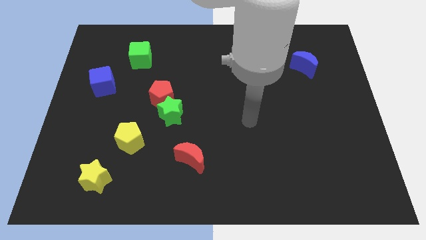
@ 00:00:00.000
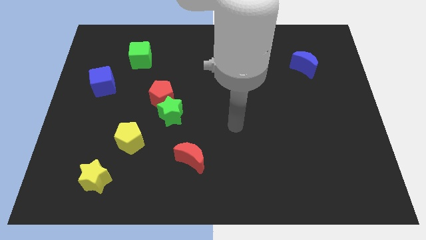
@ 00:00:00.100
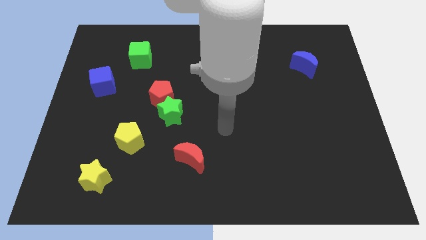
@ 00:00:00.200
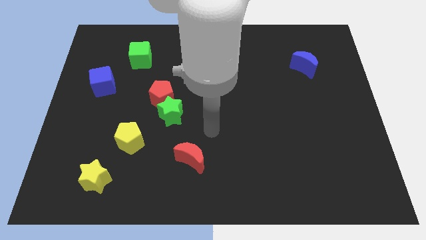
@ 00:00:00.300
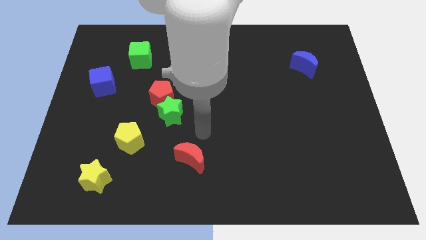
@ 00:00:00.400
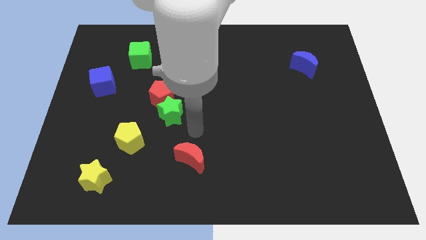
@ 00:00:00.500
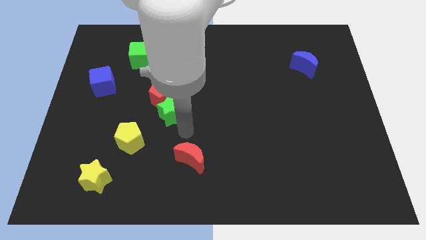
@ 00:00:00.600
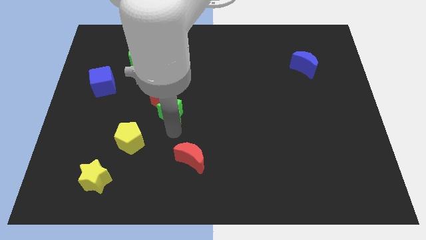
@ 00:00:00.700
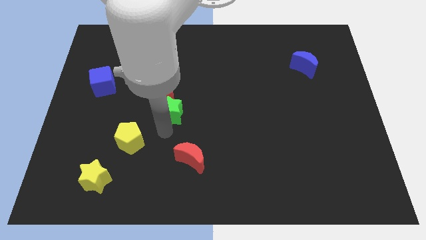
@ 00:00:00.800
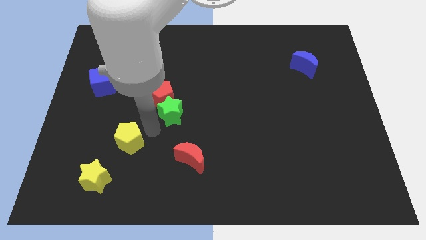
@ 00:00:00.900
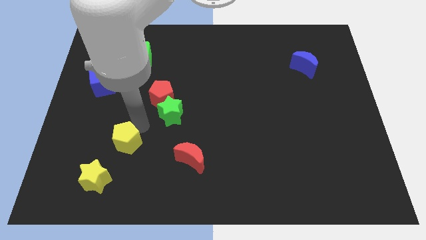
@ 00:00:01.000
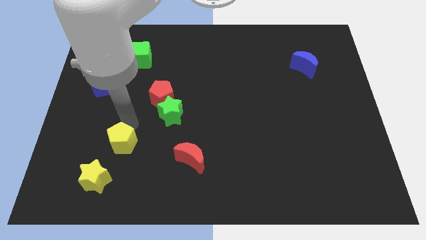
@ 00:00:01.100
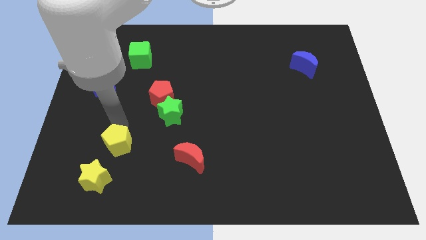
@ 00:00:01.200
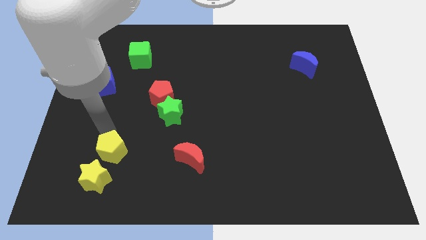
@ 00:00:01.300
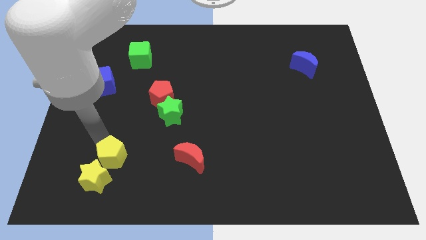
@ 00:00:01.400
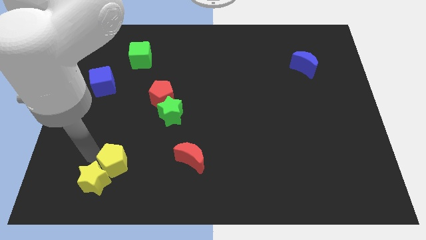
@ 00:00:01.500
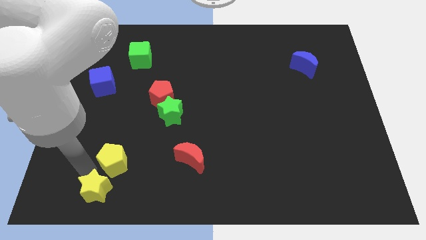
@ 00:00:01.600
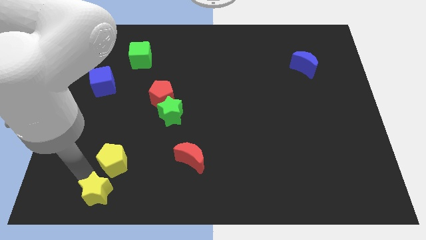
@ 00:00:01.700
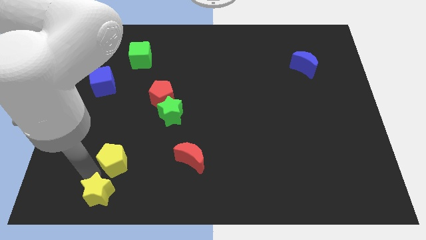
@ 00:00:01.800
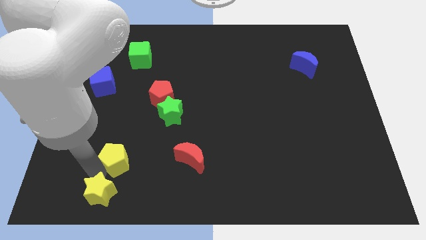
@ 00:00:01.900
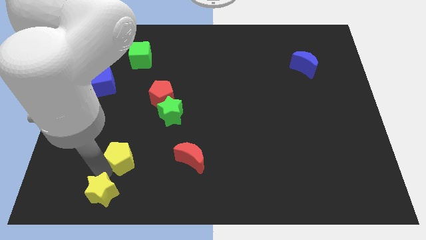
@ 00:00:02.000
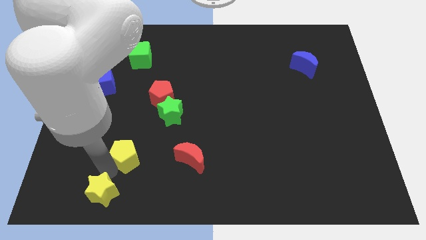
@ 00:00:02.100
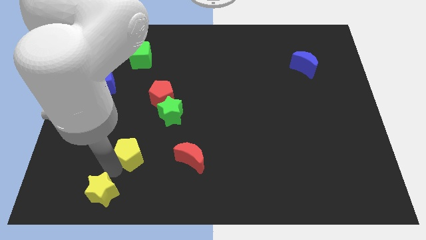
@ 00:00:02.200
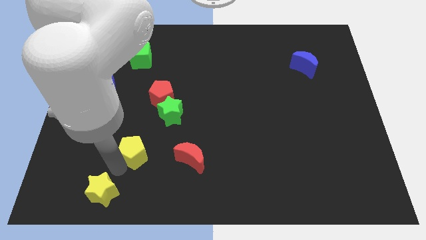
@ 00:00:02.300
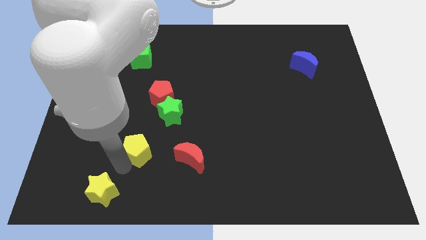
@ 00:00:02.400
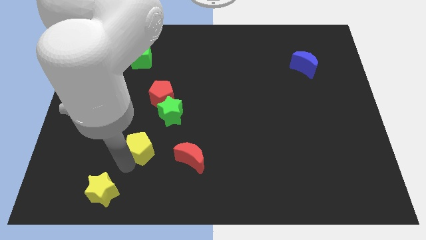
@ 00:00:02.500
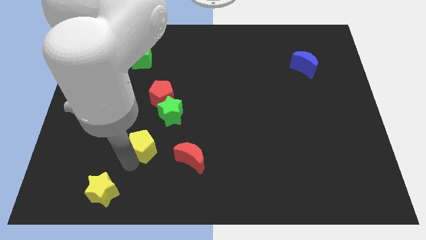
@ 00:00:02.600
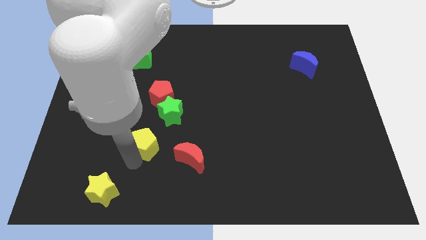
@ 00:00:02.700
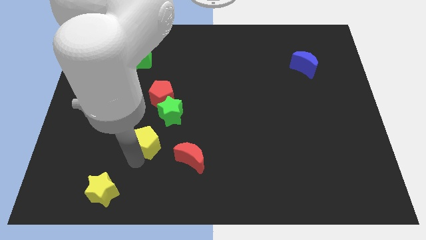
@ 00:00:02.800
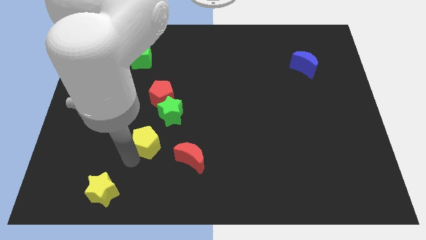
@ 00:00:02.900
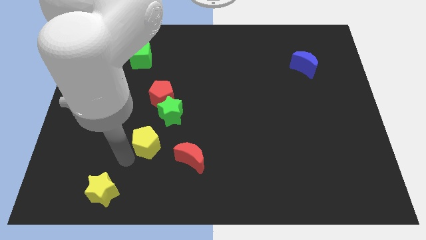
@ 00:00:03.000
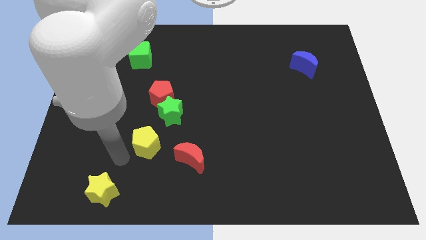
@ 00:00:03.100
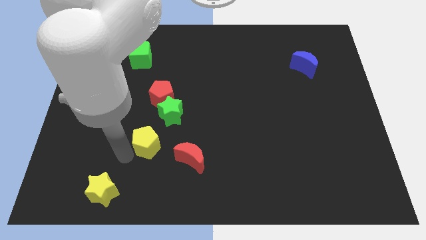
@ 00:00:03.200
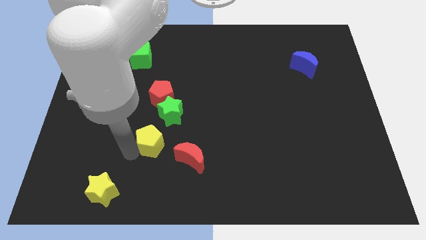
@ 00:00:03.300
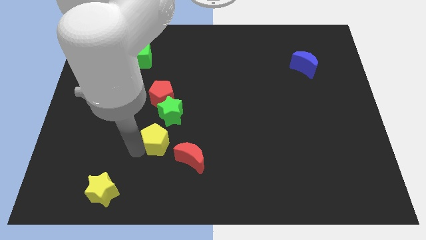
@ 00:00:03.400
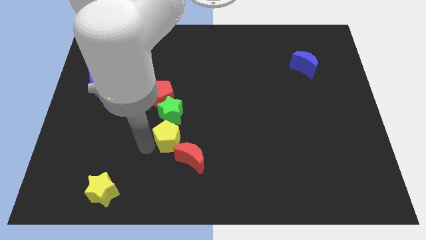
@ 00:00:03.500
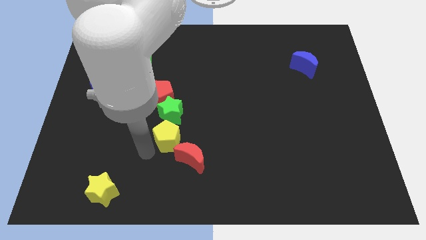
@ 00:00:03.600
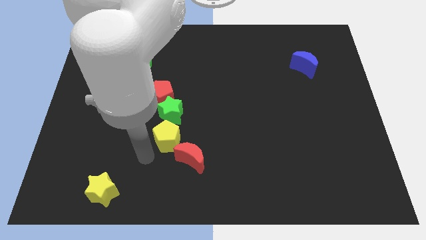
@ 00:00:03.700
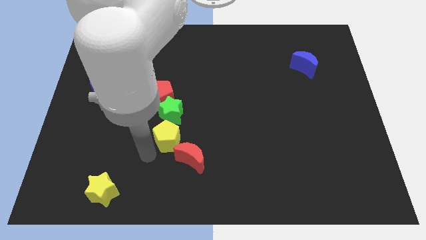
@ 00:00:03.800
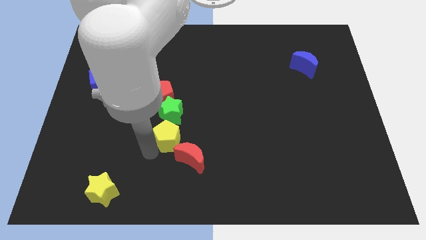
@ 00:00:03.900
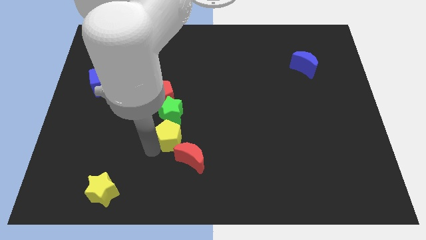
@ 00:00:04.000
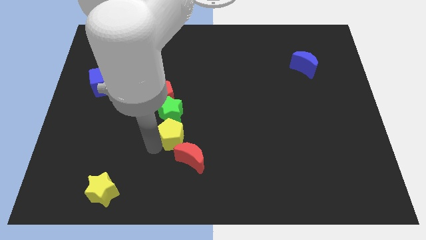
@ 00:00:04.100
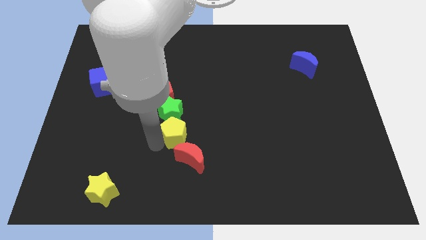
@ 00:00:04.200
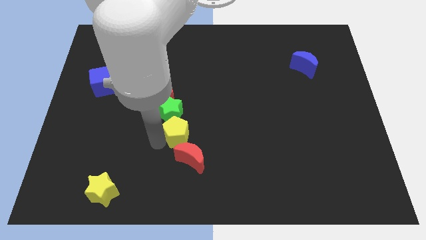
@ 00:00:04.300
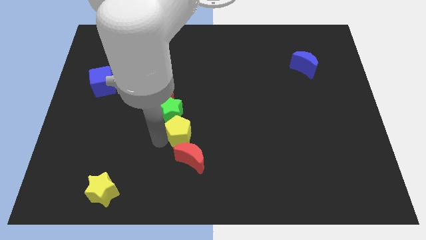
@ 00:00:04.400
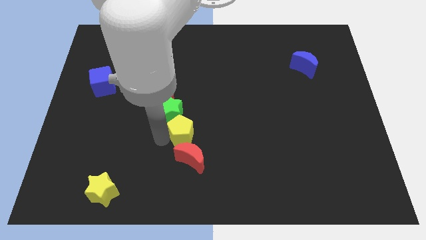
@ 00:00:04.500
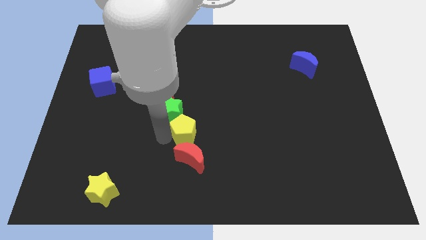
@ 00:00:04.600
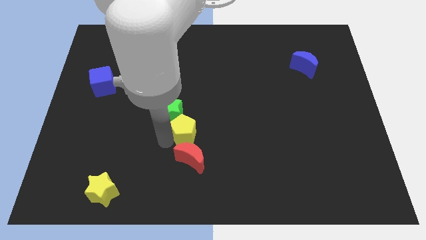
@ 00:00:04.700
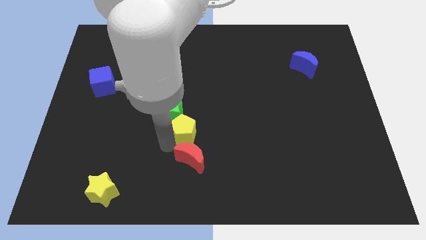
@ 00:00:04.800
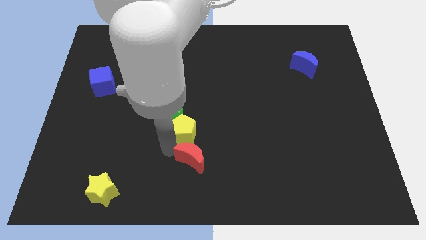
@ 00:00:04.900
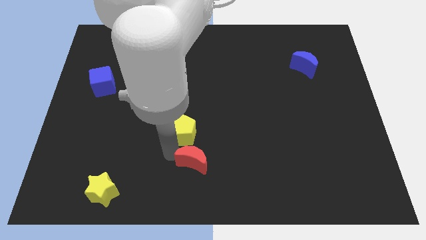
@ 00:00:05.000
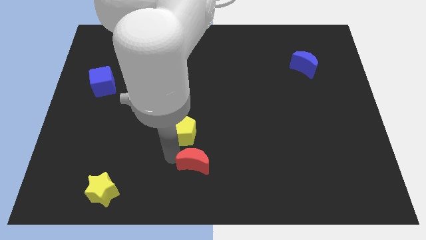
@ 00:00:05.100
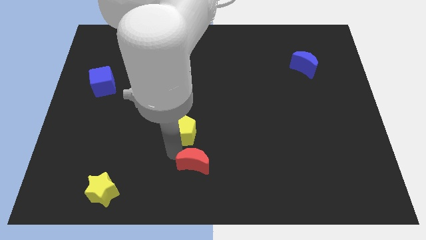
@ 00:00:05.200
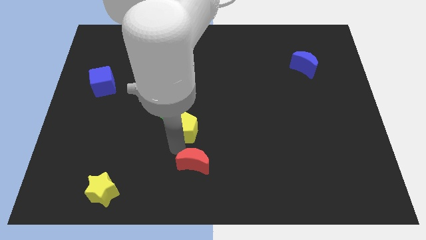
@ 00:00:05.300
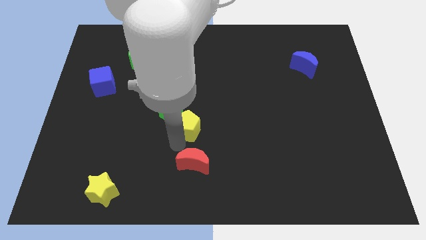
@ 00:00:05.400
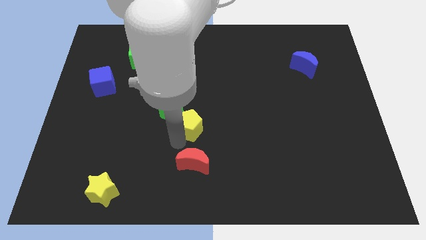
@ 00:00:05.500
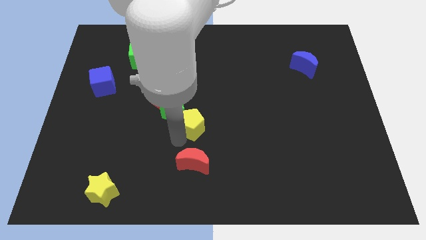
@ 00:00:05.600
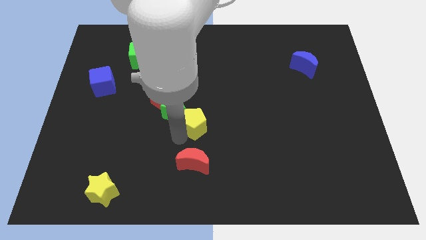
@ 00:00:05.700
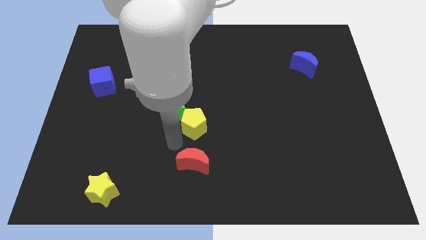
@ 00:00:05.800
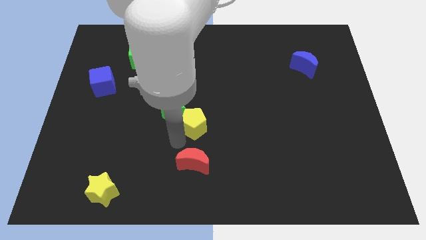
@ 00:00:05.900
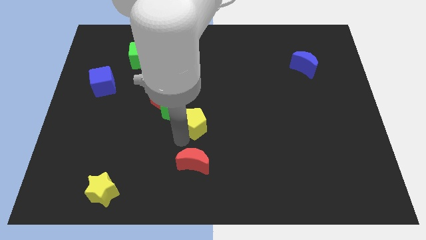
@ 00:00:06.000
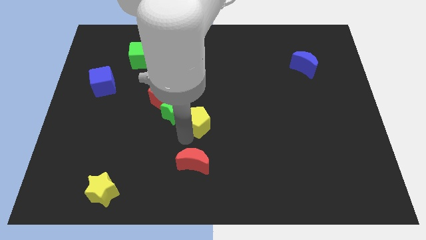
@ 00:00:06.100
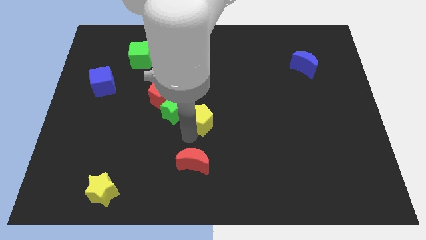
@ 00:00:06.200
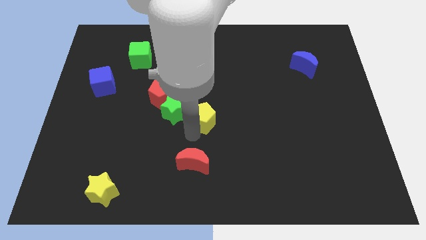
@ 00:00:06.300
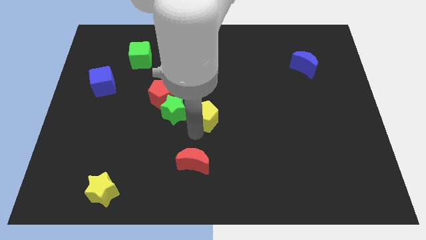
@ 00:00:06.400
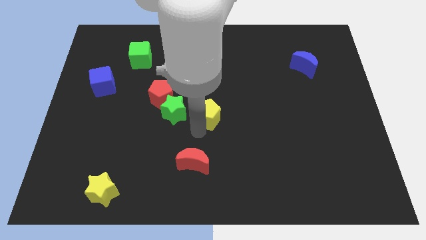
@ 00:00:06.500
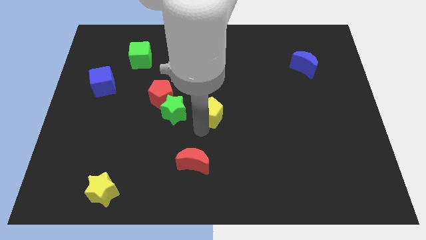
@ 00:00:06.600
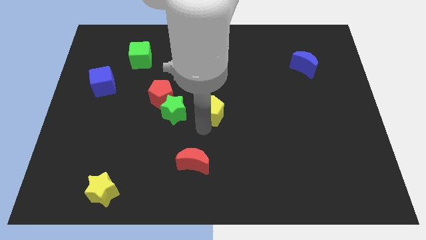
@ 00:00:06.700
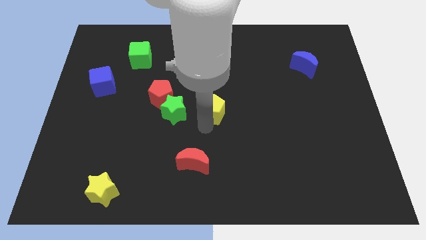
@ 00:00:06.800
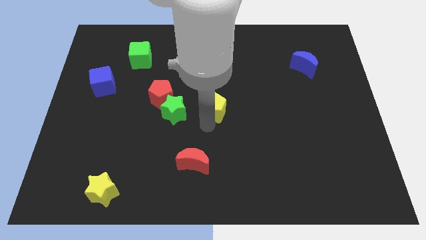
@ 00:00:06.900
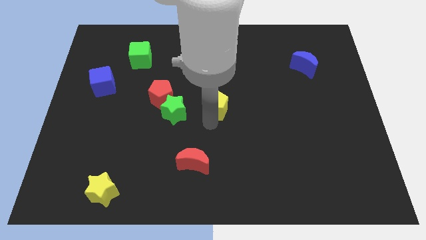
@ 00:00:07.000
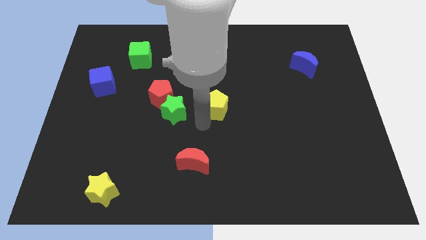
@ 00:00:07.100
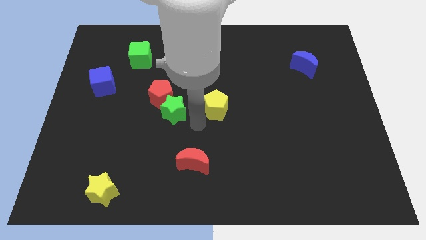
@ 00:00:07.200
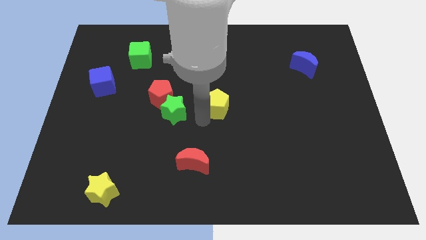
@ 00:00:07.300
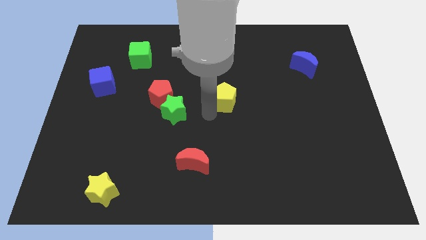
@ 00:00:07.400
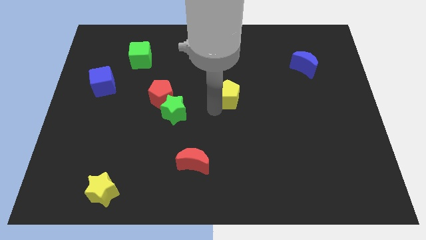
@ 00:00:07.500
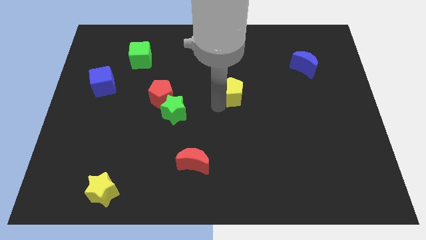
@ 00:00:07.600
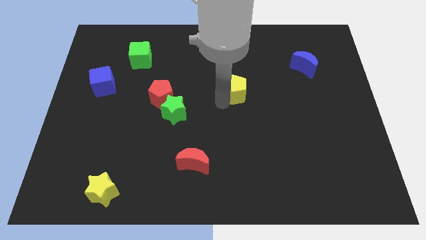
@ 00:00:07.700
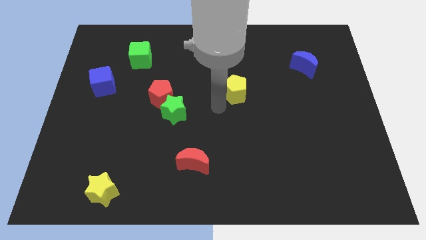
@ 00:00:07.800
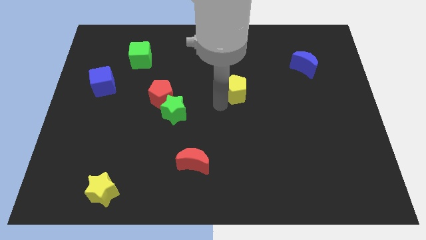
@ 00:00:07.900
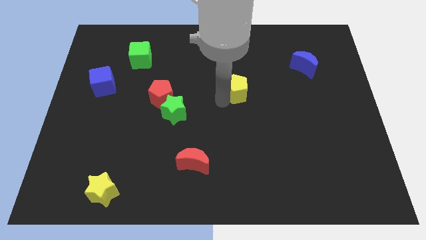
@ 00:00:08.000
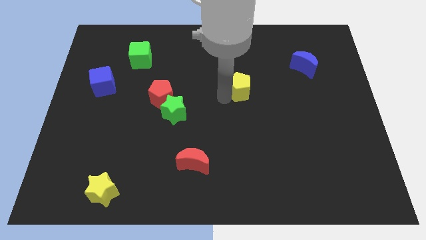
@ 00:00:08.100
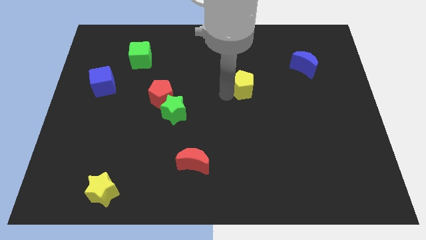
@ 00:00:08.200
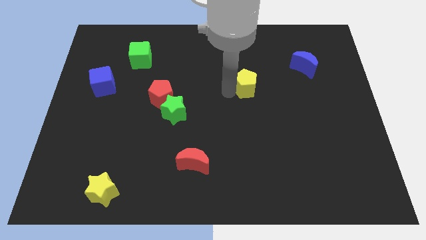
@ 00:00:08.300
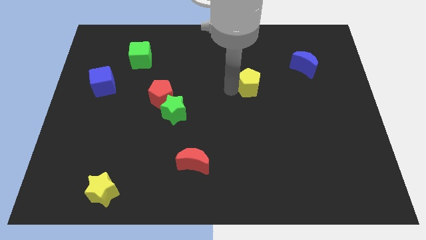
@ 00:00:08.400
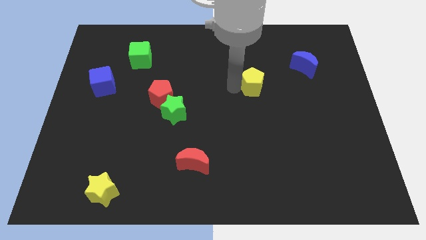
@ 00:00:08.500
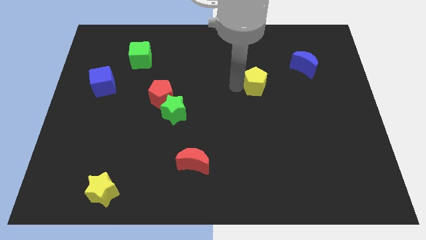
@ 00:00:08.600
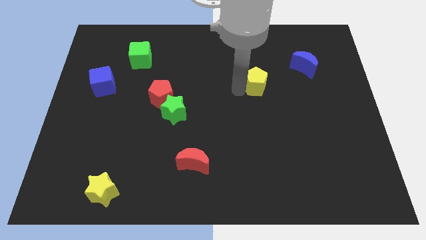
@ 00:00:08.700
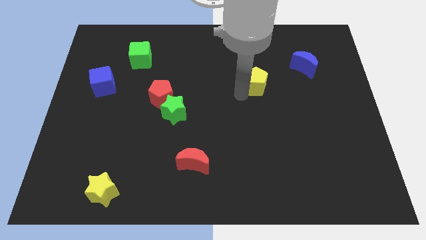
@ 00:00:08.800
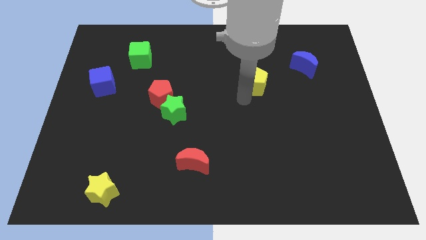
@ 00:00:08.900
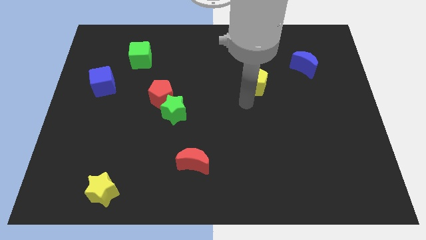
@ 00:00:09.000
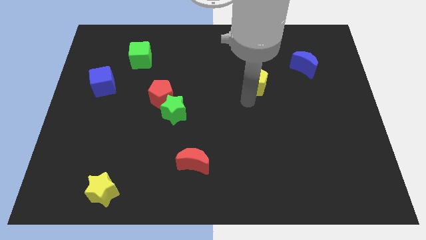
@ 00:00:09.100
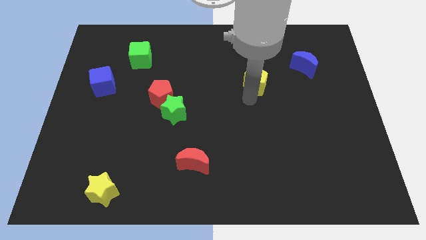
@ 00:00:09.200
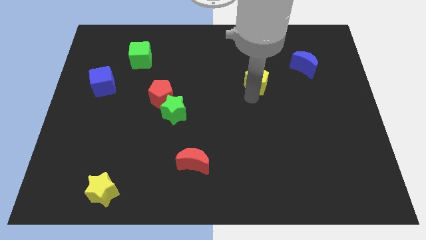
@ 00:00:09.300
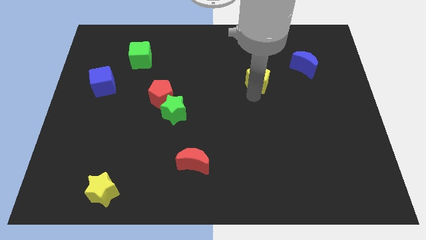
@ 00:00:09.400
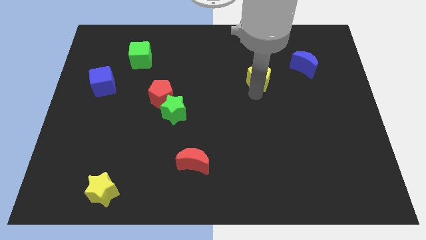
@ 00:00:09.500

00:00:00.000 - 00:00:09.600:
push the yellow pentagon to the left side of the blue moon
